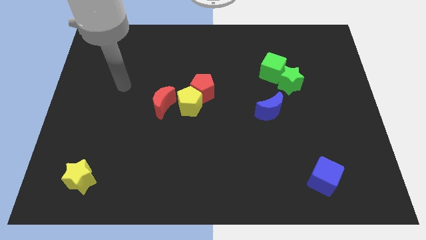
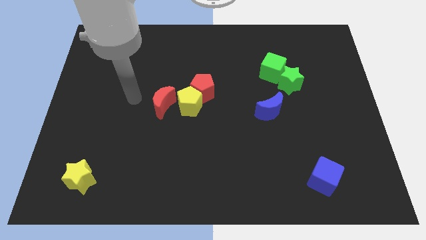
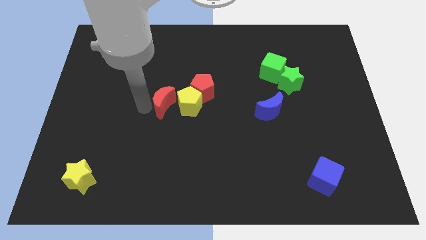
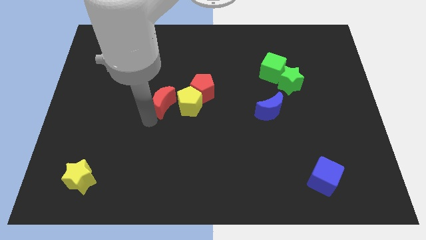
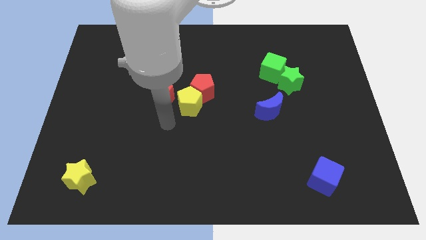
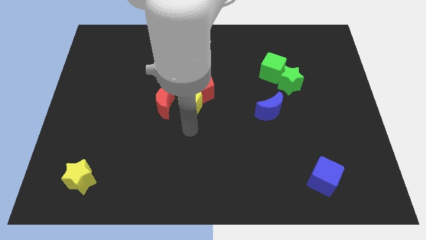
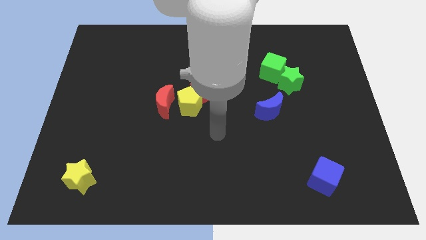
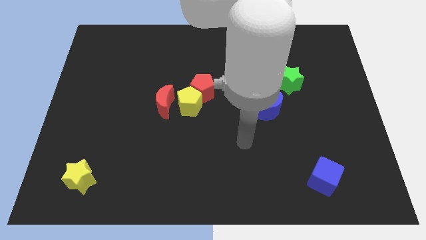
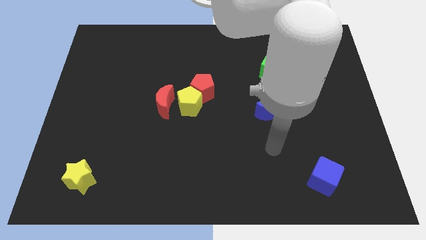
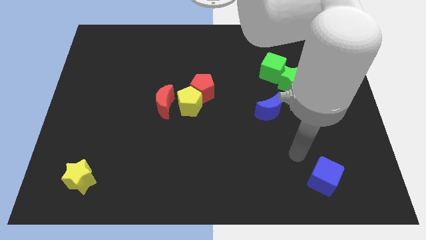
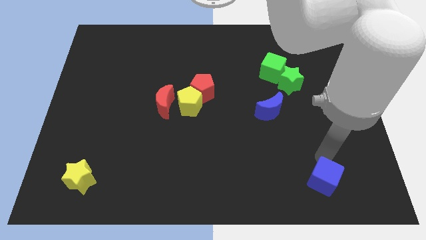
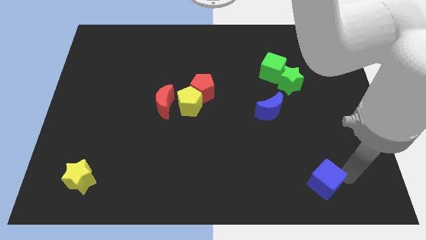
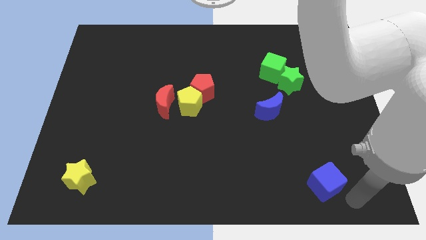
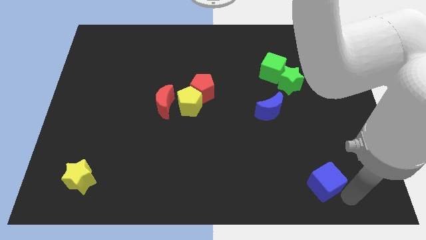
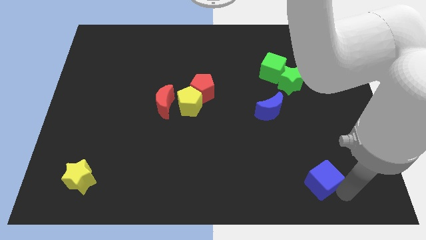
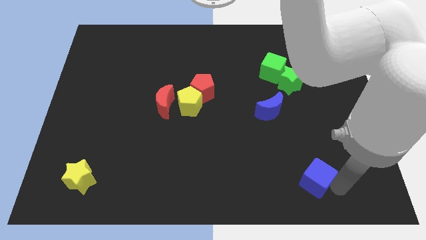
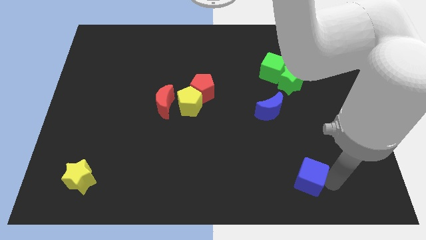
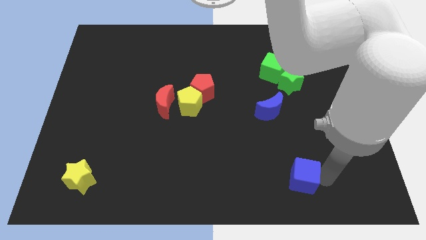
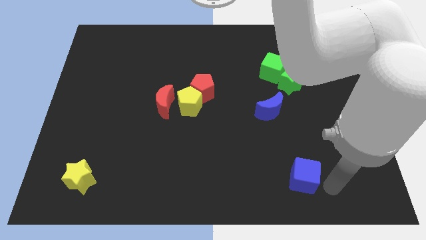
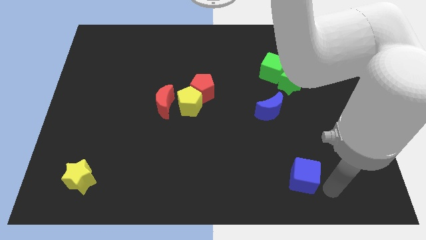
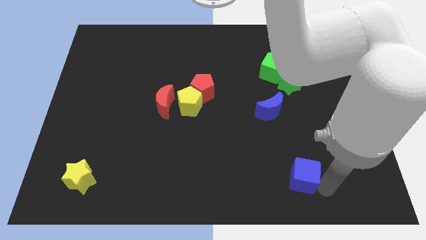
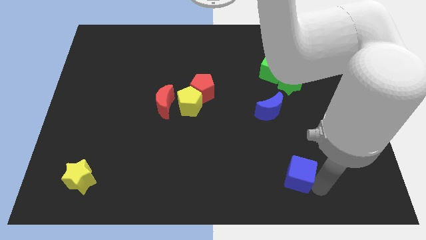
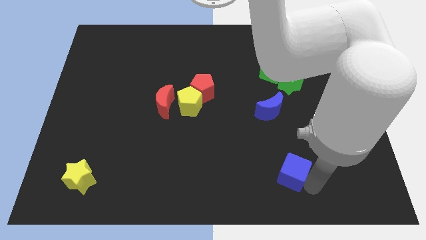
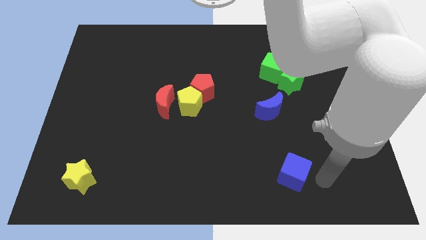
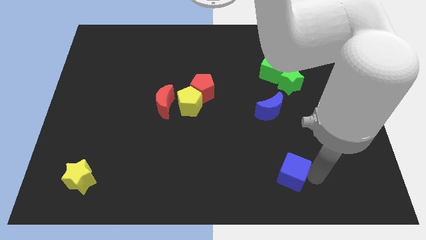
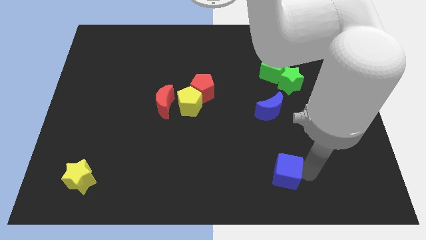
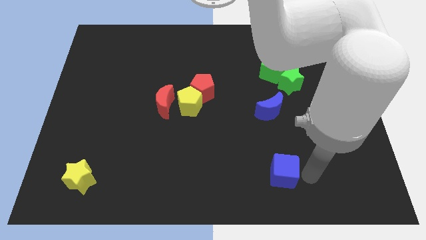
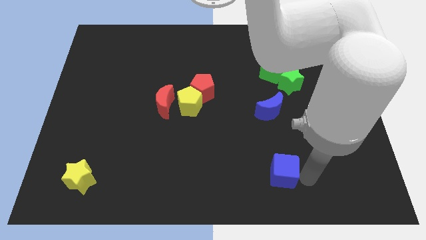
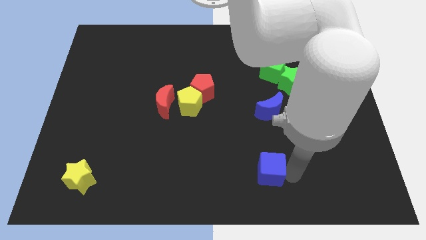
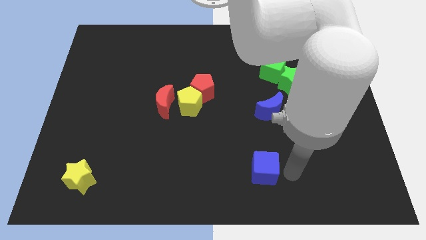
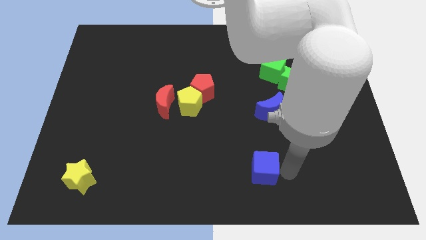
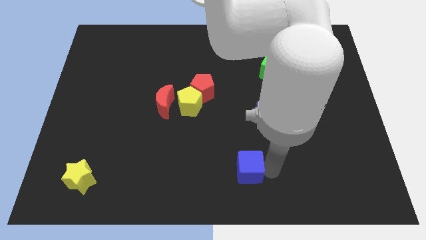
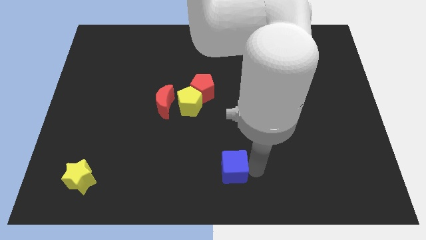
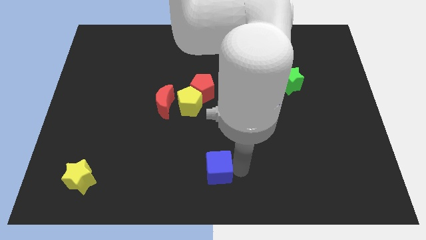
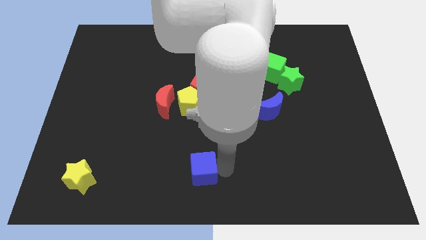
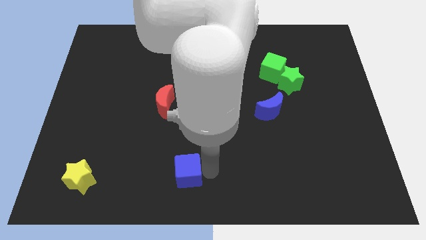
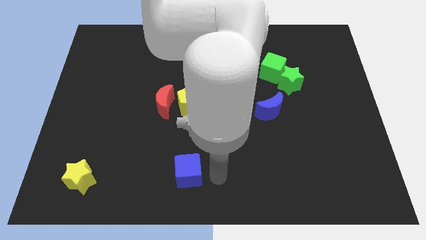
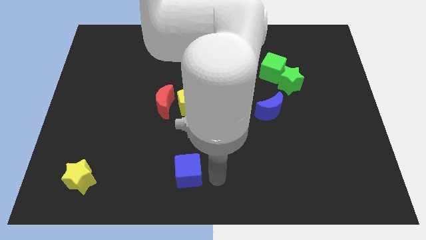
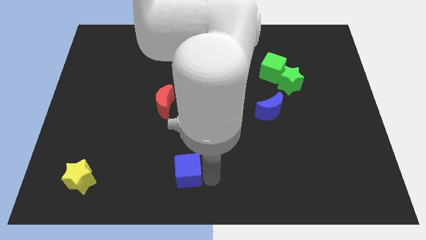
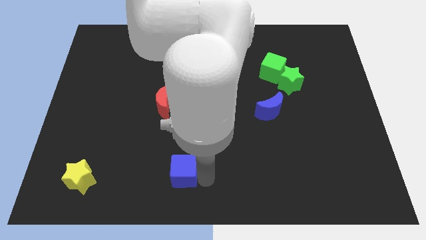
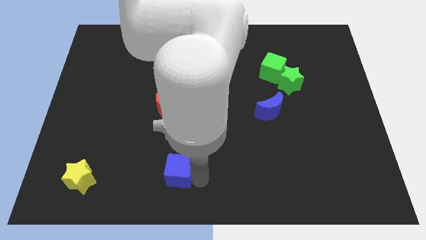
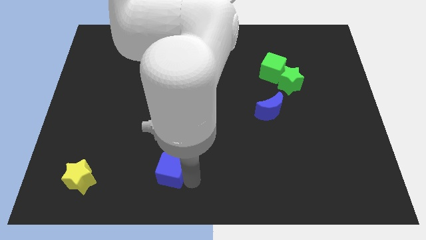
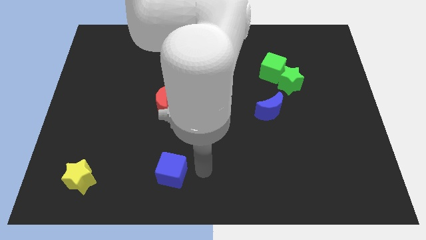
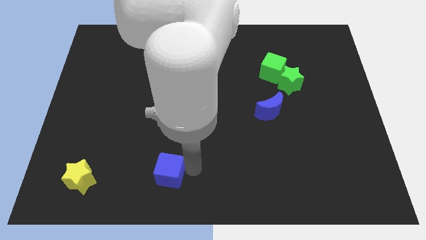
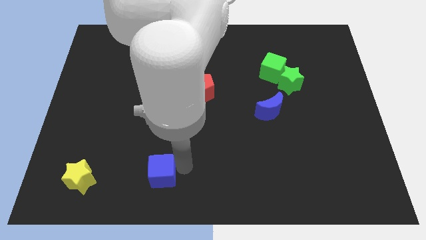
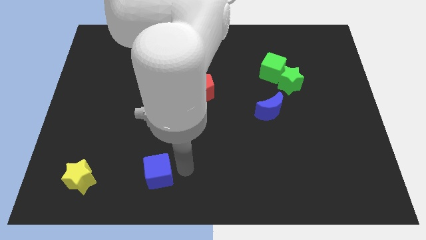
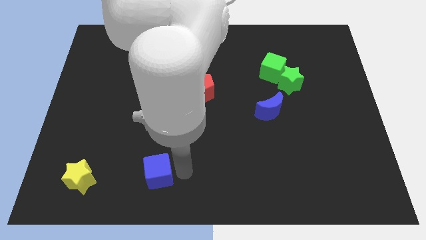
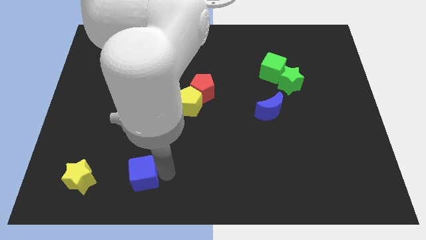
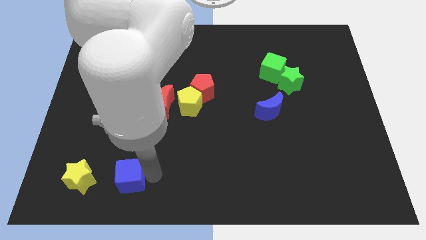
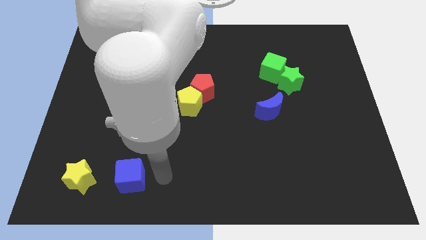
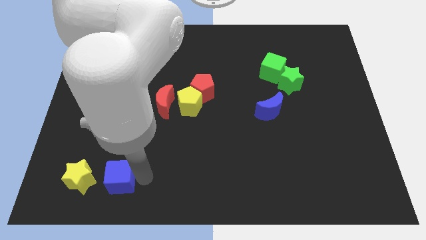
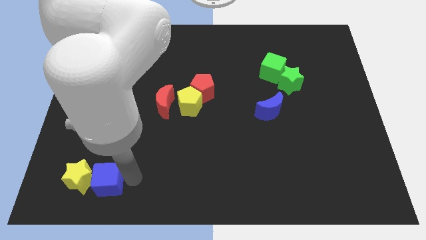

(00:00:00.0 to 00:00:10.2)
push the blue cube towards the yellow star

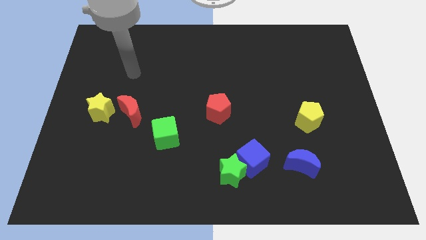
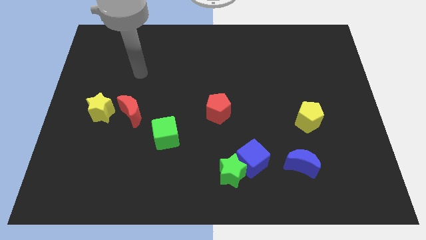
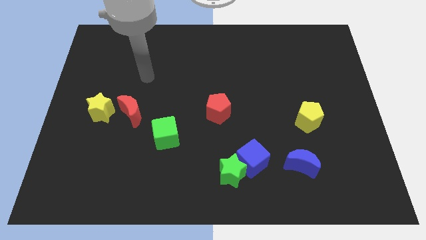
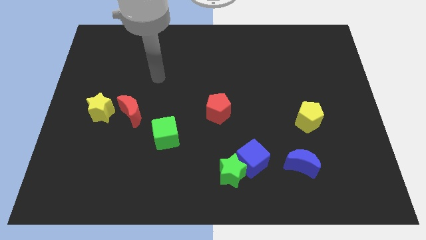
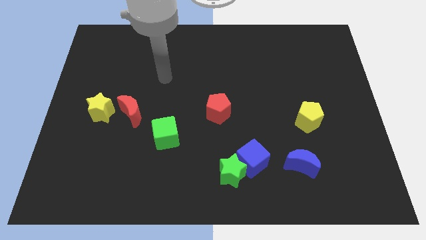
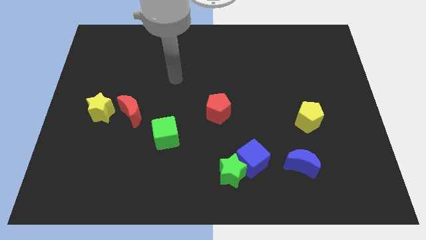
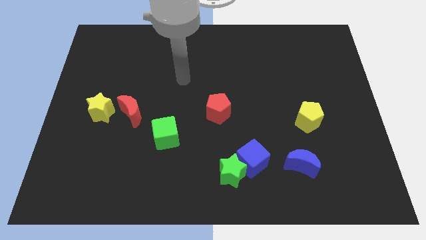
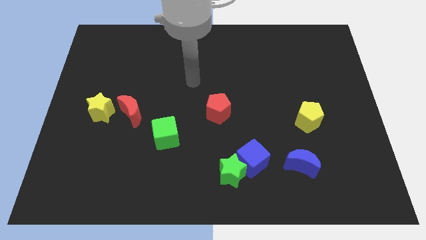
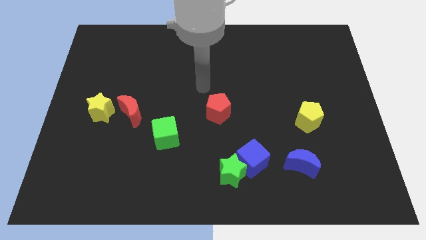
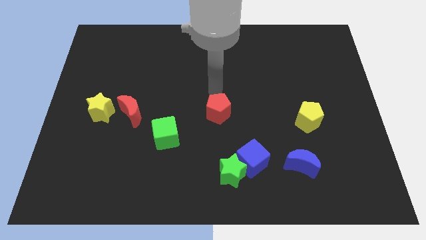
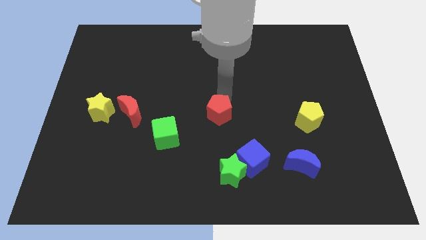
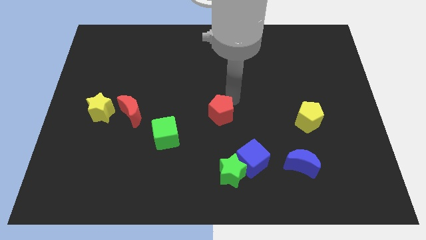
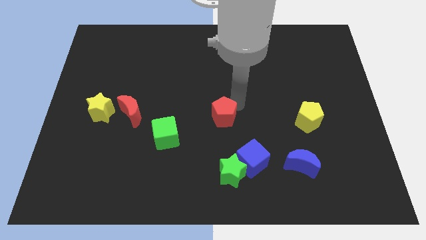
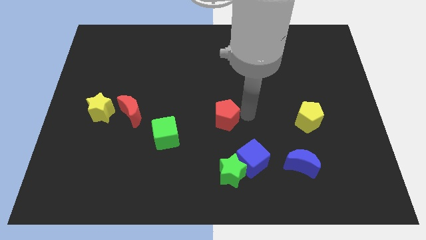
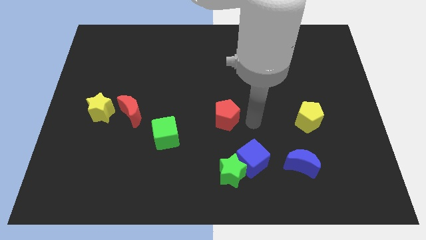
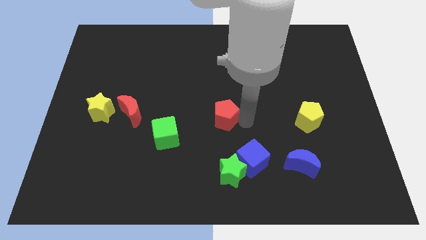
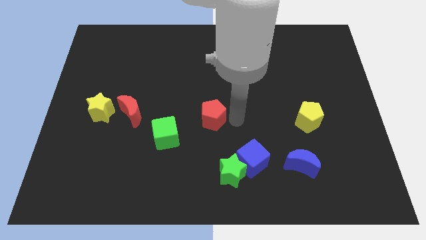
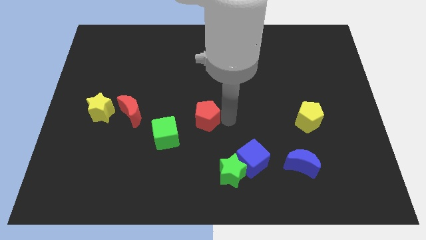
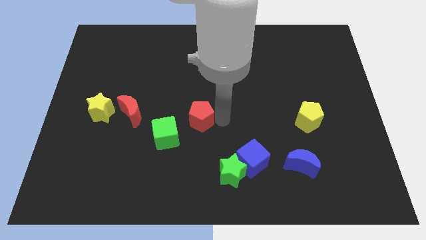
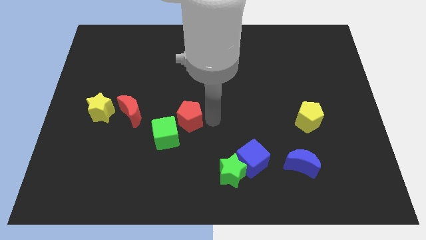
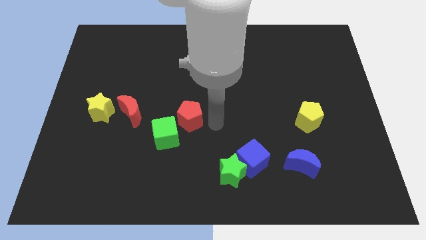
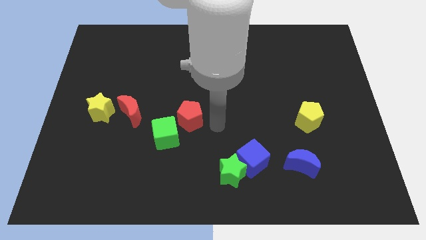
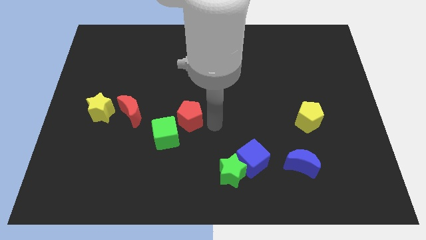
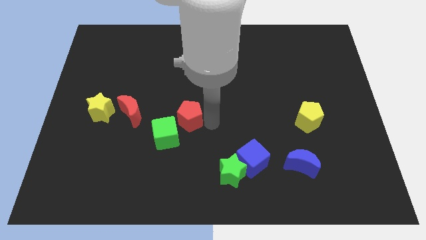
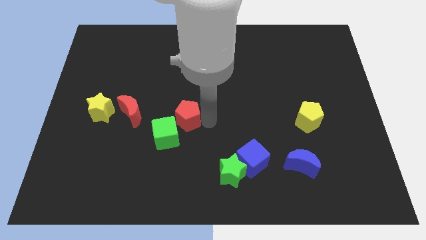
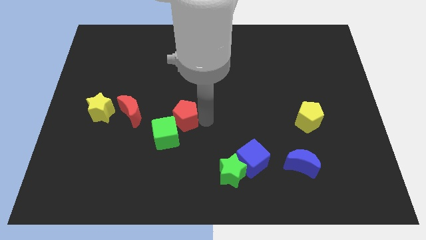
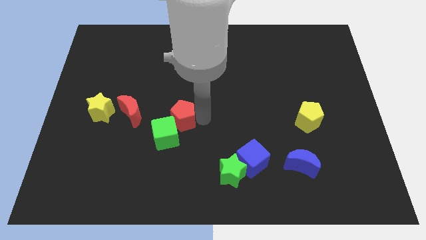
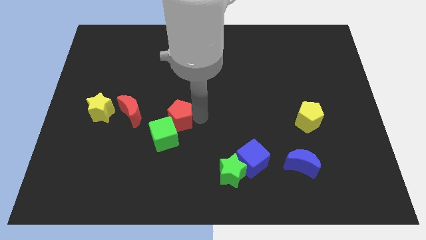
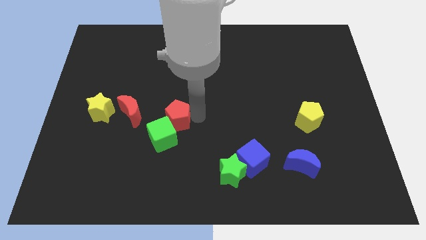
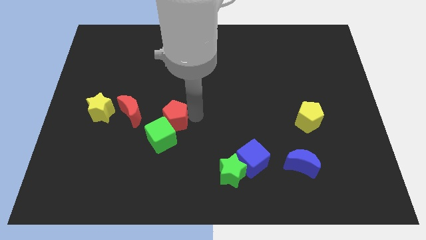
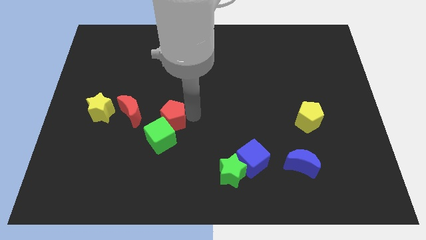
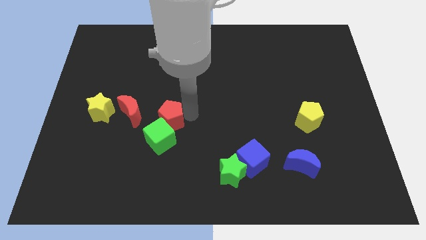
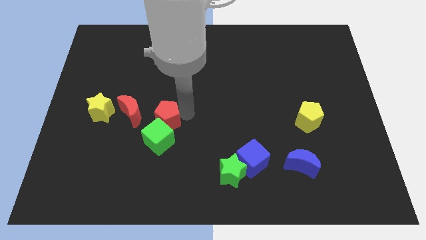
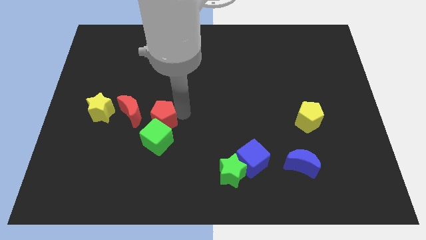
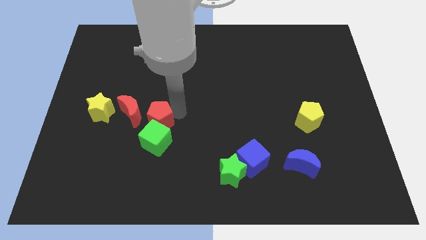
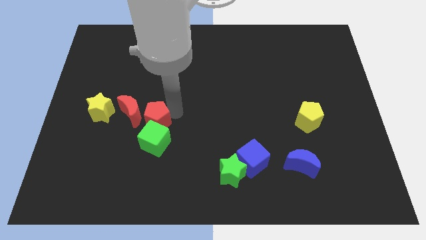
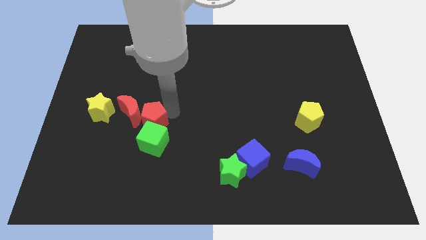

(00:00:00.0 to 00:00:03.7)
push the red pentagon towards the red moon
